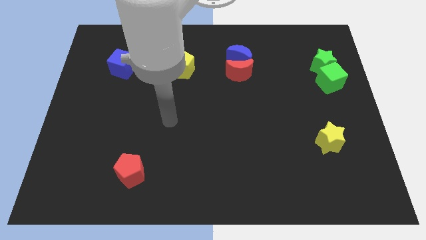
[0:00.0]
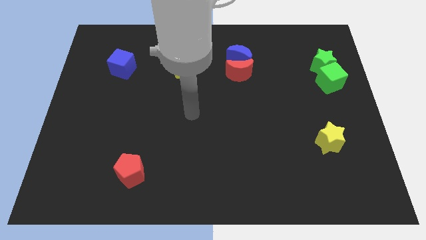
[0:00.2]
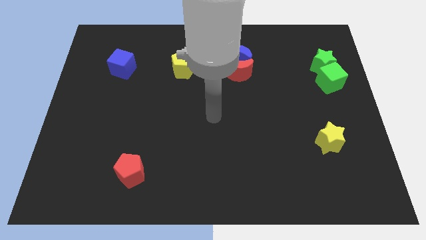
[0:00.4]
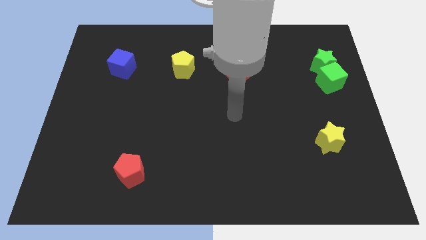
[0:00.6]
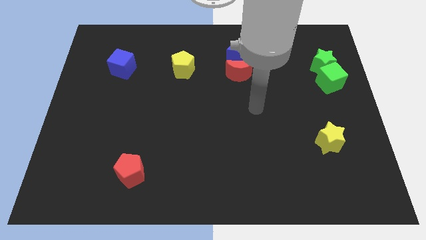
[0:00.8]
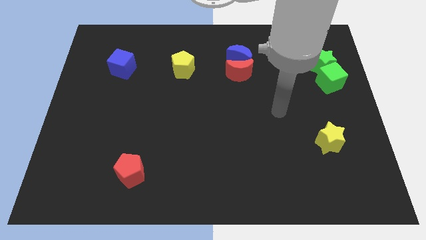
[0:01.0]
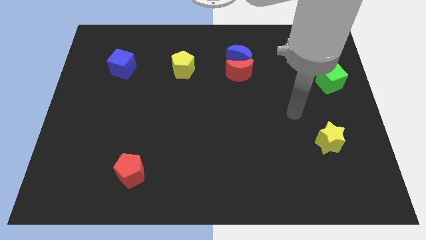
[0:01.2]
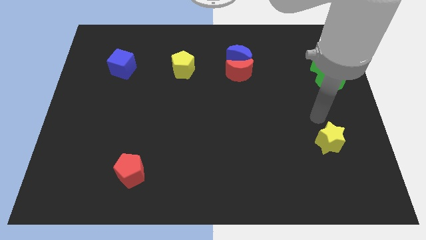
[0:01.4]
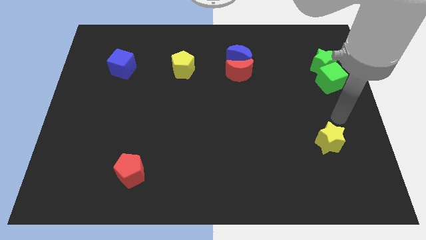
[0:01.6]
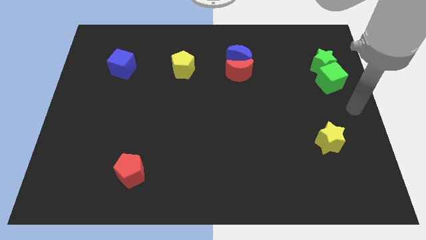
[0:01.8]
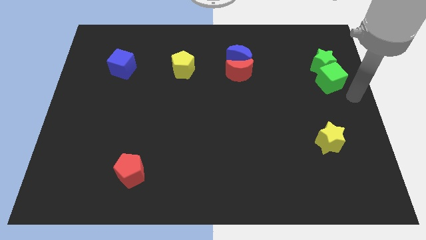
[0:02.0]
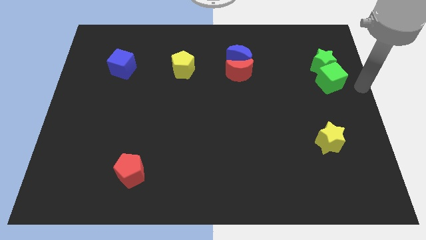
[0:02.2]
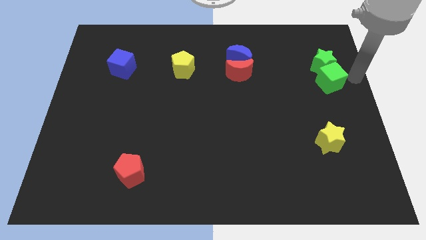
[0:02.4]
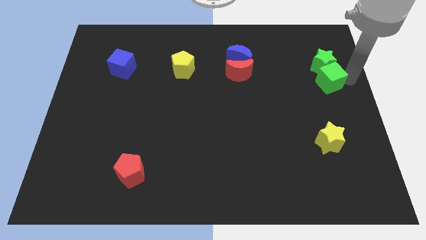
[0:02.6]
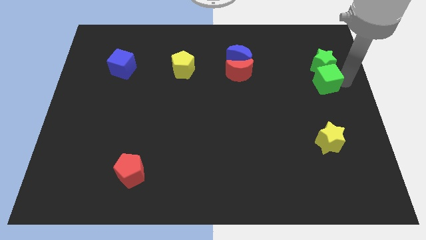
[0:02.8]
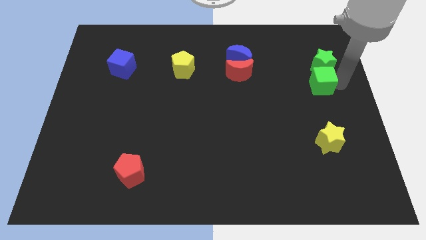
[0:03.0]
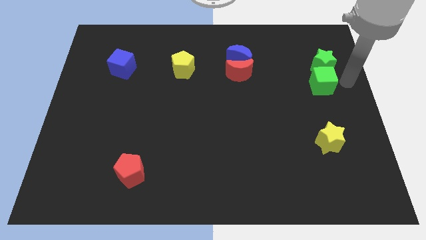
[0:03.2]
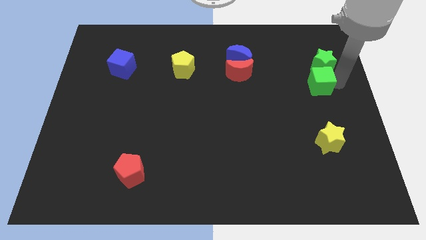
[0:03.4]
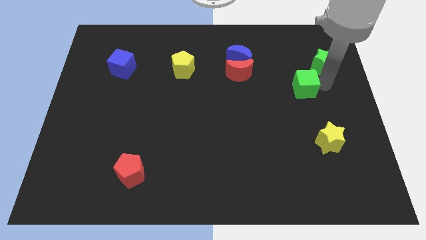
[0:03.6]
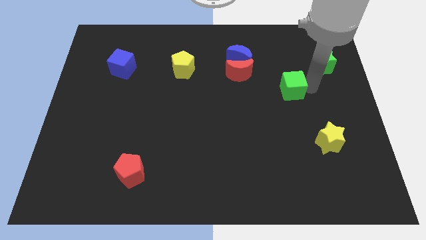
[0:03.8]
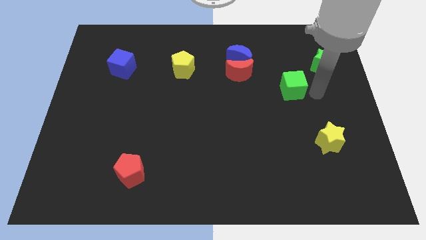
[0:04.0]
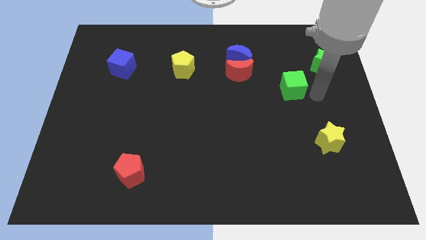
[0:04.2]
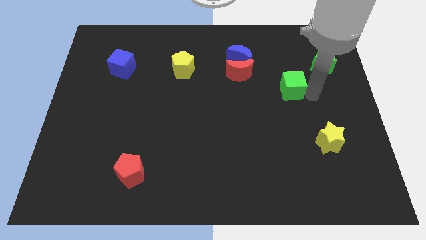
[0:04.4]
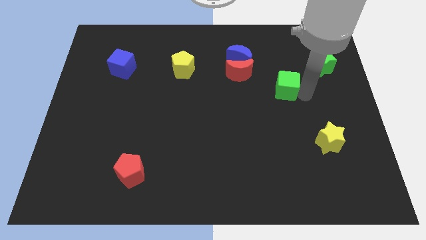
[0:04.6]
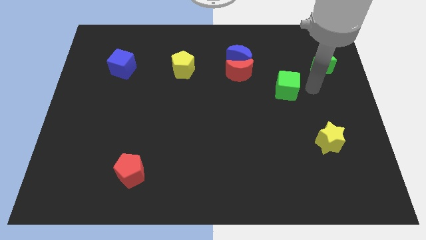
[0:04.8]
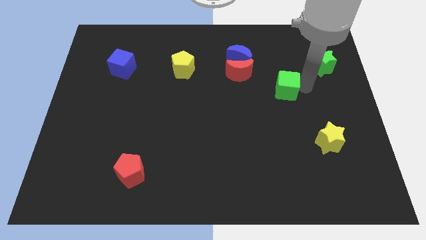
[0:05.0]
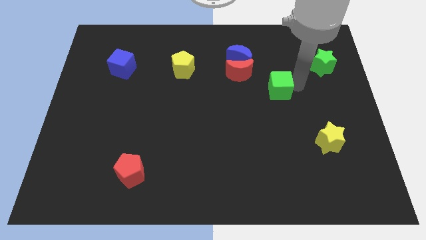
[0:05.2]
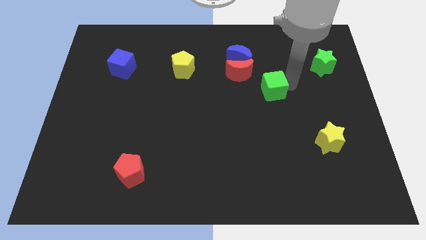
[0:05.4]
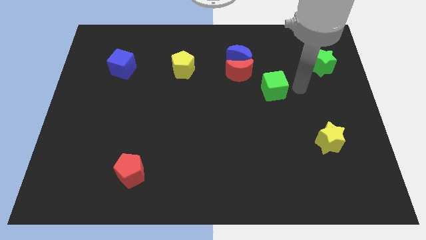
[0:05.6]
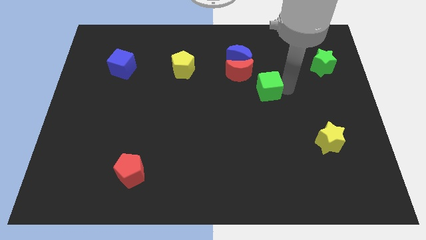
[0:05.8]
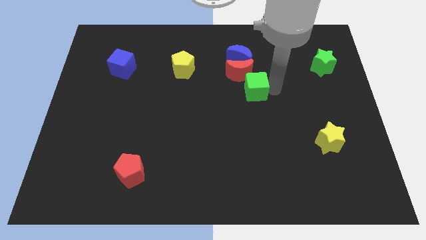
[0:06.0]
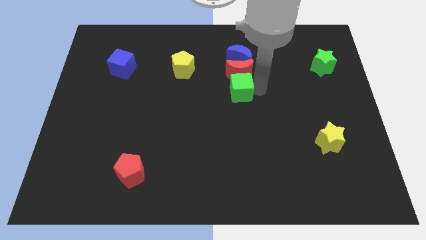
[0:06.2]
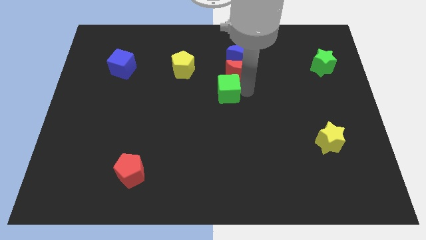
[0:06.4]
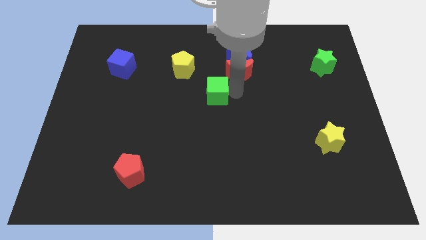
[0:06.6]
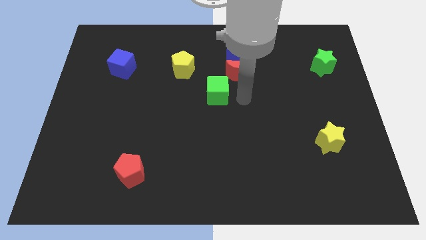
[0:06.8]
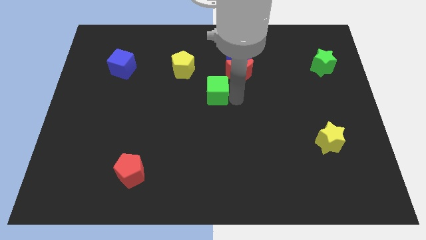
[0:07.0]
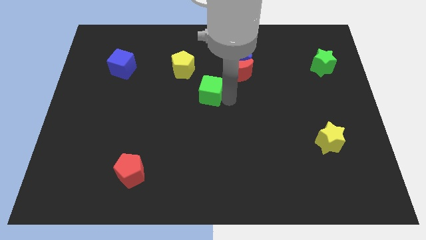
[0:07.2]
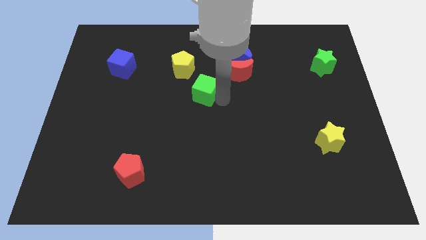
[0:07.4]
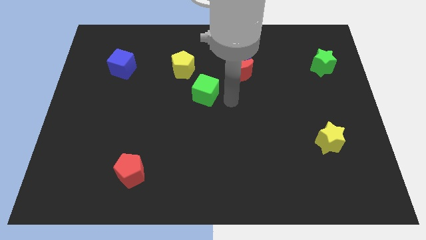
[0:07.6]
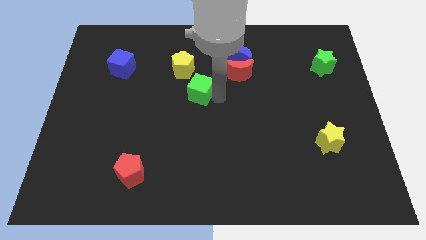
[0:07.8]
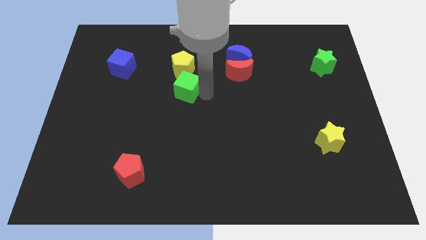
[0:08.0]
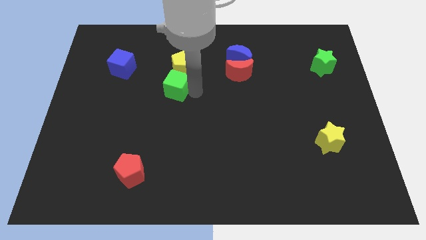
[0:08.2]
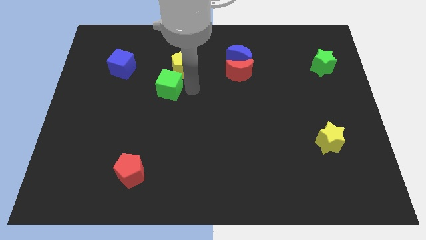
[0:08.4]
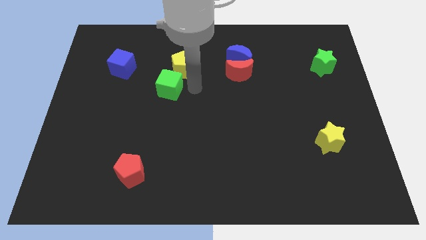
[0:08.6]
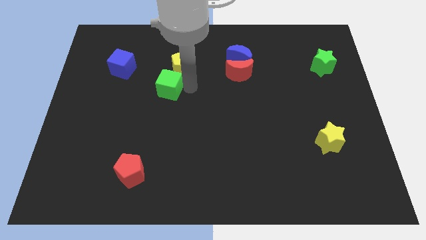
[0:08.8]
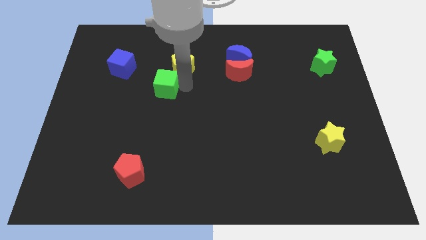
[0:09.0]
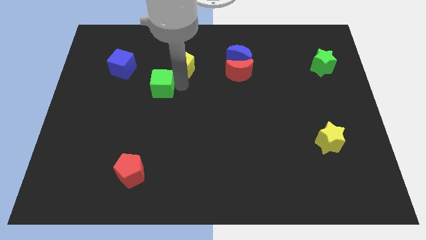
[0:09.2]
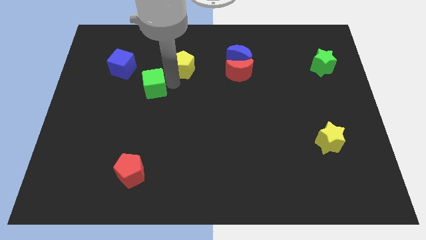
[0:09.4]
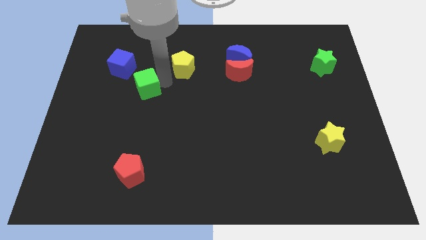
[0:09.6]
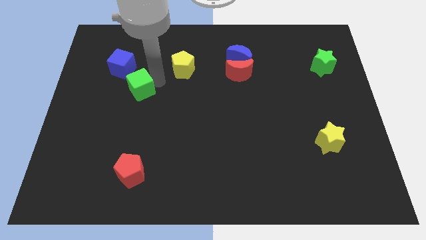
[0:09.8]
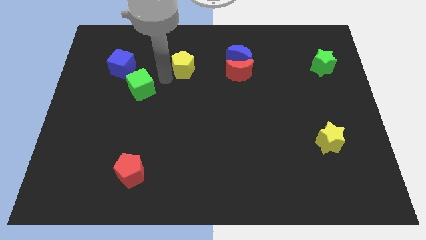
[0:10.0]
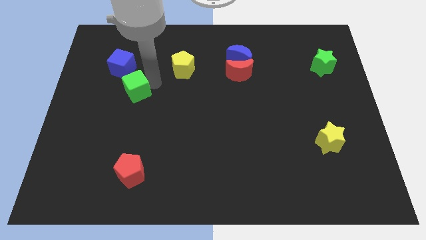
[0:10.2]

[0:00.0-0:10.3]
slide the green cube below the blue cube

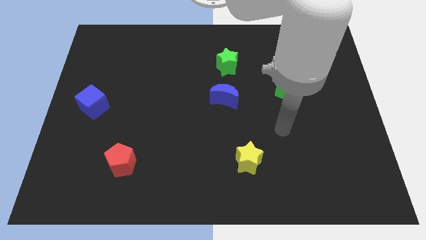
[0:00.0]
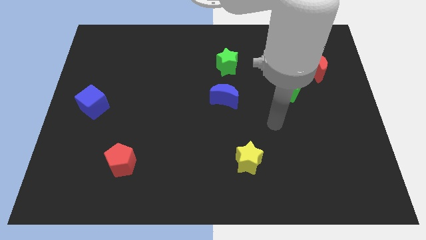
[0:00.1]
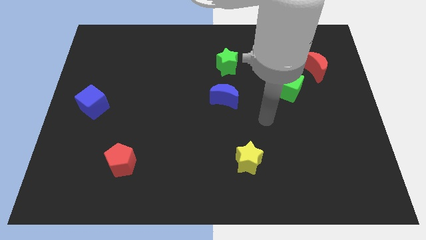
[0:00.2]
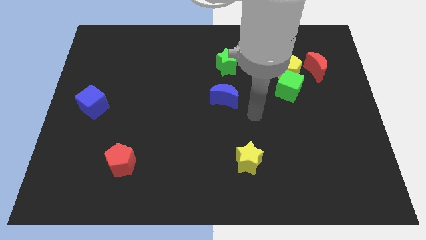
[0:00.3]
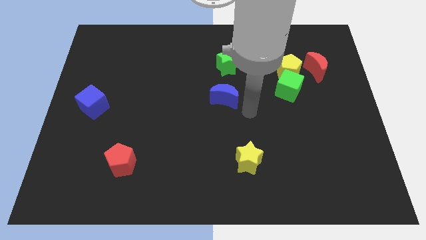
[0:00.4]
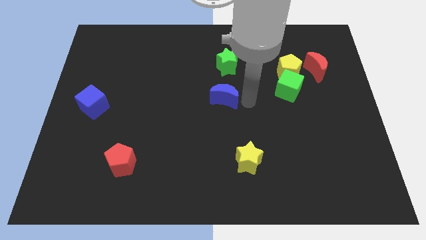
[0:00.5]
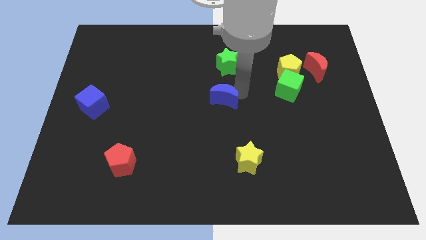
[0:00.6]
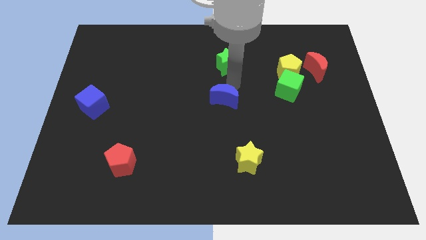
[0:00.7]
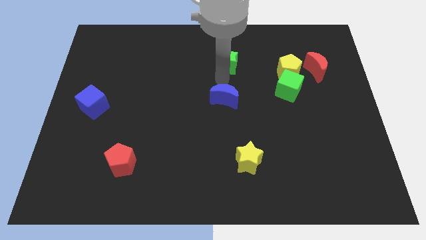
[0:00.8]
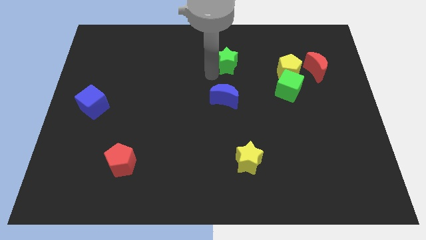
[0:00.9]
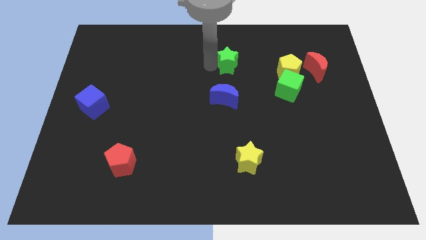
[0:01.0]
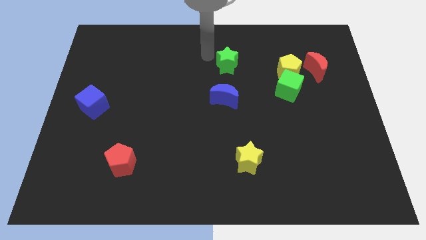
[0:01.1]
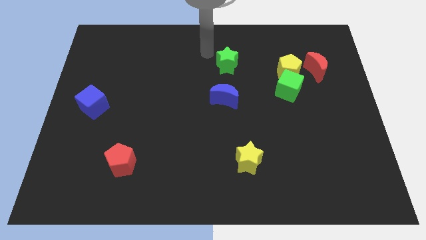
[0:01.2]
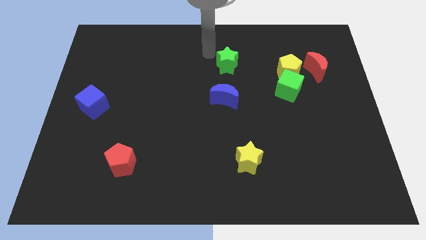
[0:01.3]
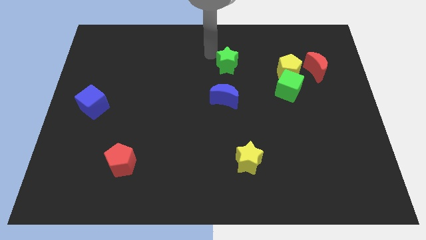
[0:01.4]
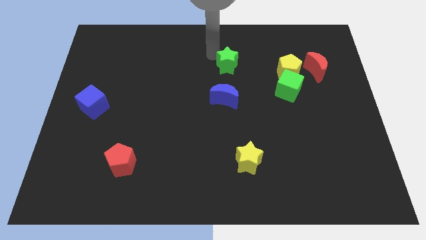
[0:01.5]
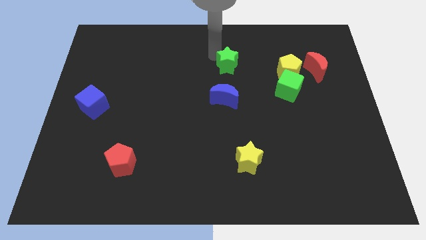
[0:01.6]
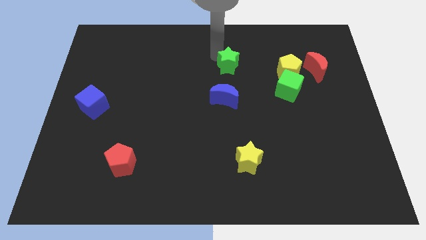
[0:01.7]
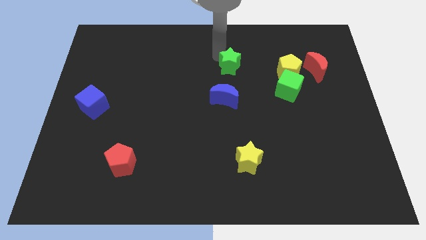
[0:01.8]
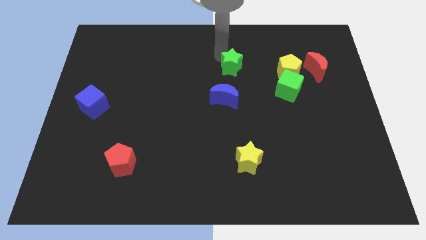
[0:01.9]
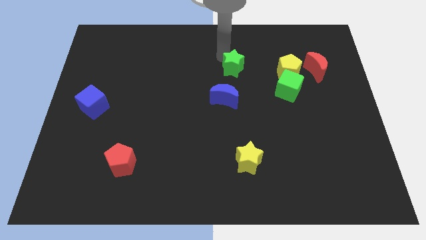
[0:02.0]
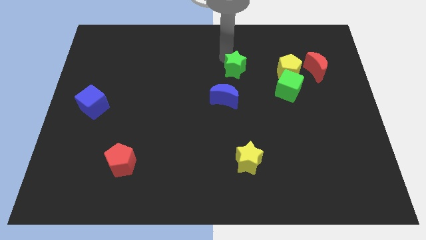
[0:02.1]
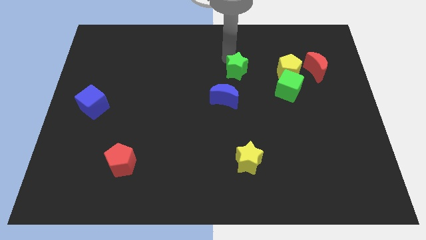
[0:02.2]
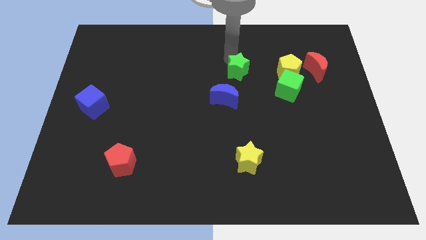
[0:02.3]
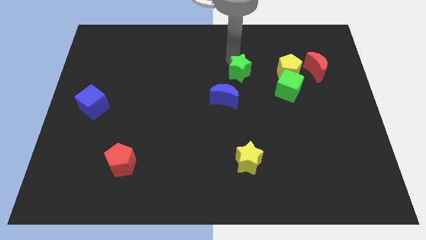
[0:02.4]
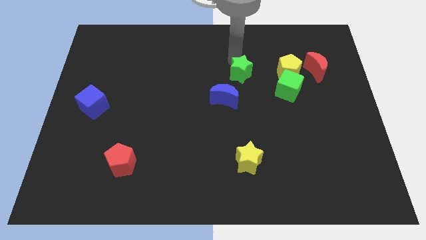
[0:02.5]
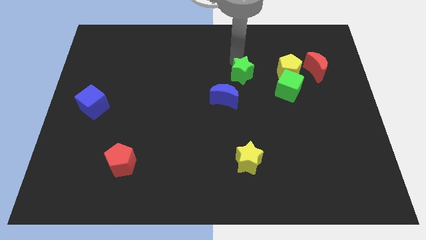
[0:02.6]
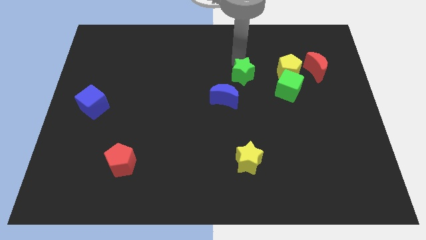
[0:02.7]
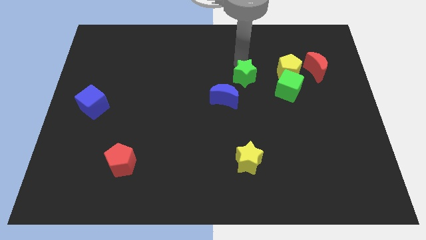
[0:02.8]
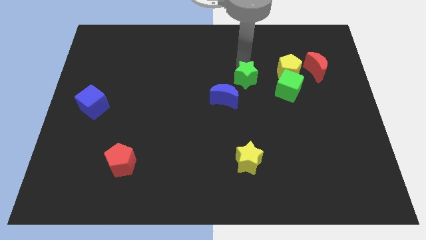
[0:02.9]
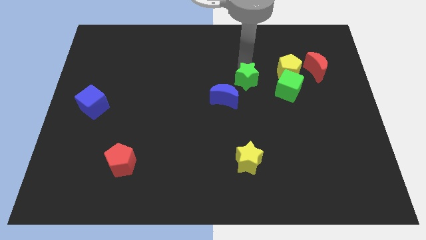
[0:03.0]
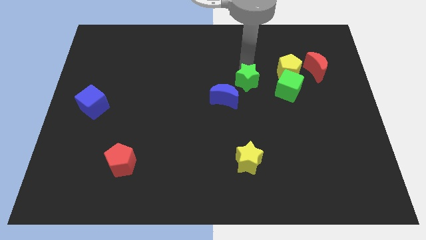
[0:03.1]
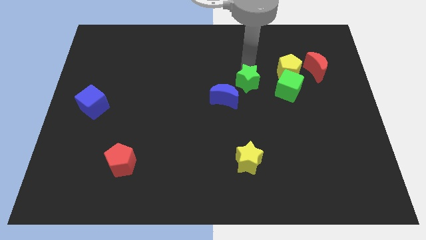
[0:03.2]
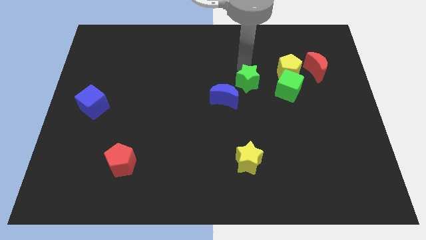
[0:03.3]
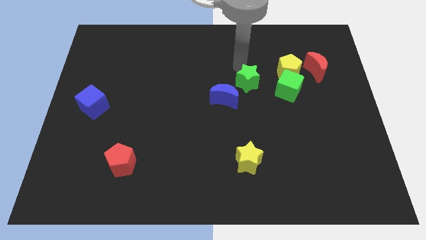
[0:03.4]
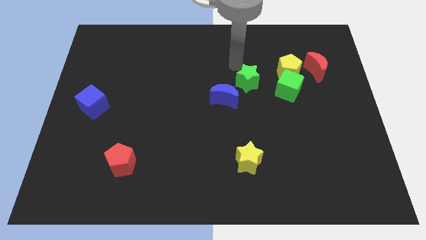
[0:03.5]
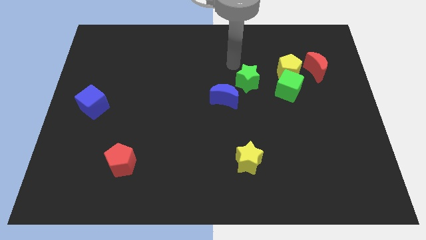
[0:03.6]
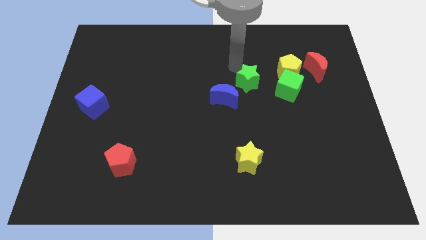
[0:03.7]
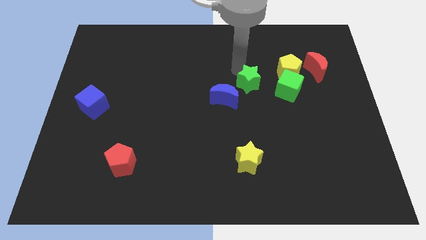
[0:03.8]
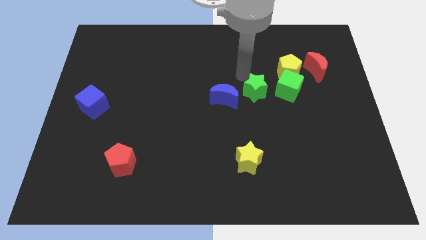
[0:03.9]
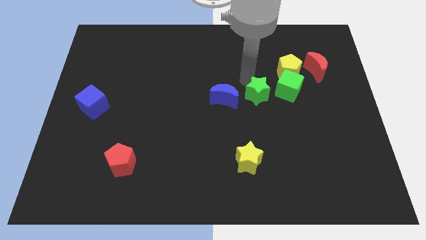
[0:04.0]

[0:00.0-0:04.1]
put the green star to the bottom left side of the green cube
